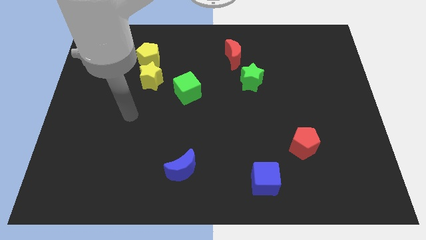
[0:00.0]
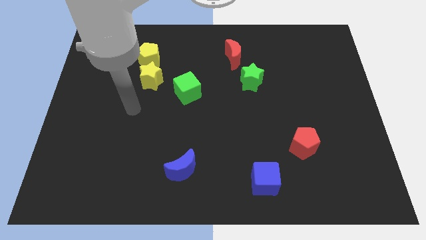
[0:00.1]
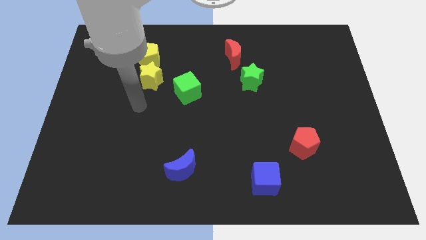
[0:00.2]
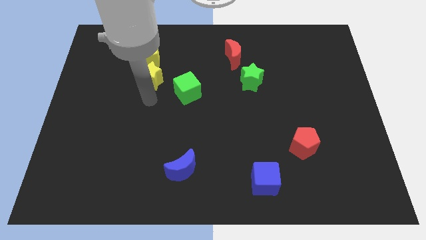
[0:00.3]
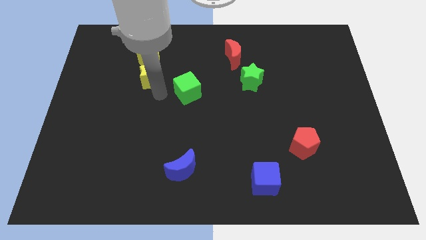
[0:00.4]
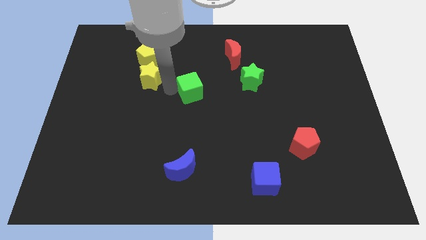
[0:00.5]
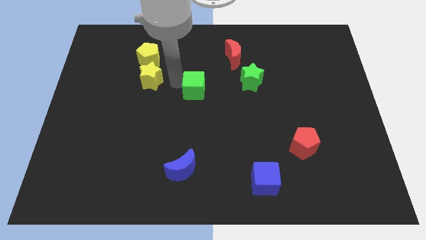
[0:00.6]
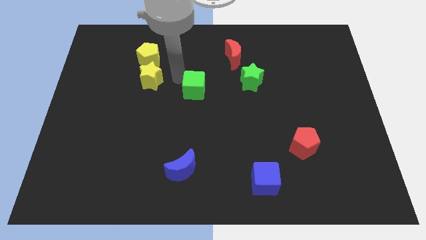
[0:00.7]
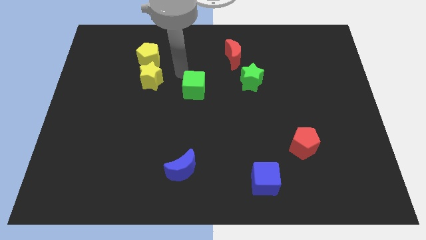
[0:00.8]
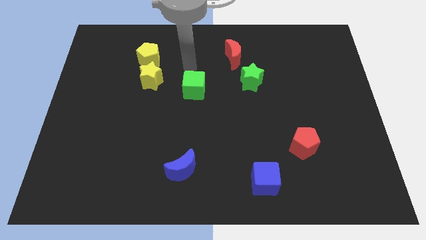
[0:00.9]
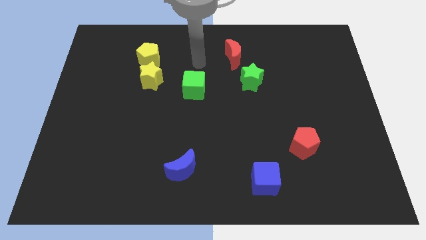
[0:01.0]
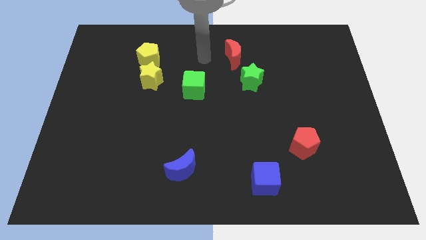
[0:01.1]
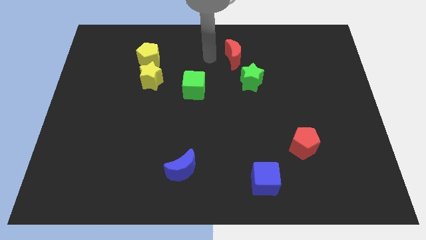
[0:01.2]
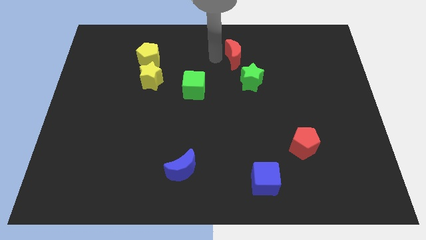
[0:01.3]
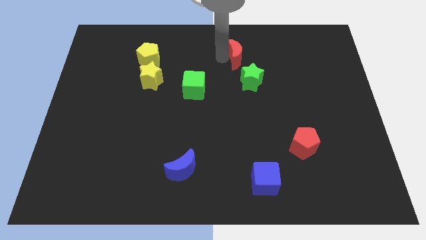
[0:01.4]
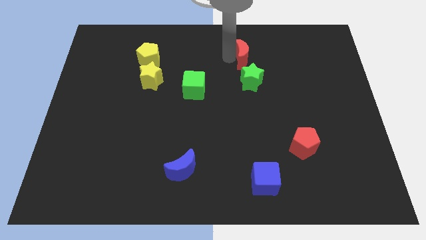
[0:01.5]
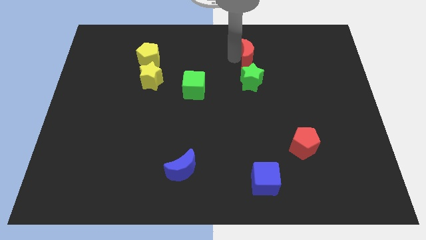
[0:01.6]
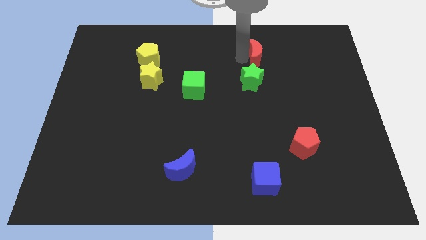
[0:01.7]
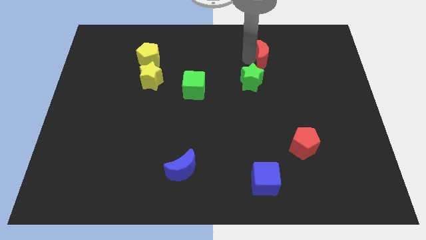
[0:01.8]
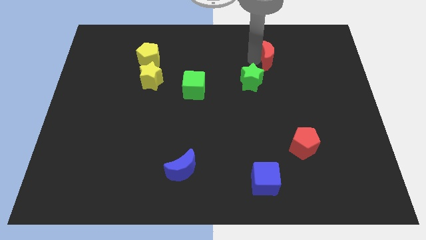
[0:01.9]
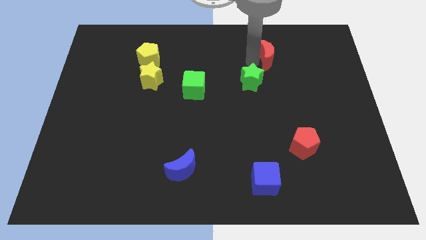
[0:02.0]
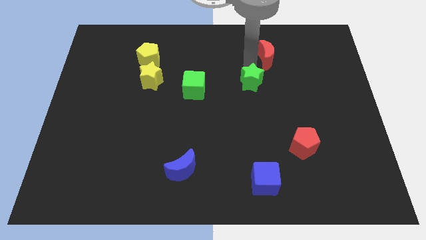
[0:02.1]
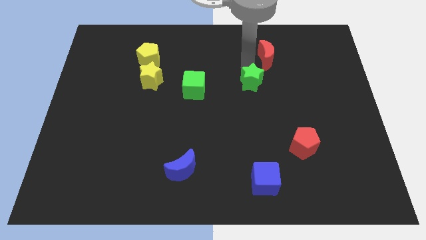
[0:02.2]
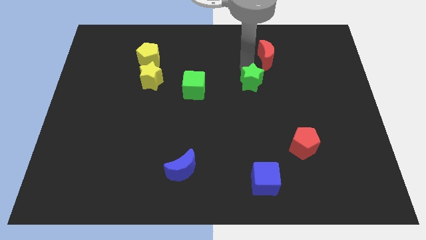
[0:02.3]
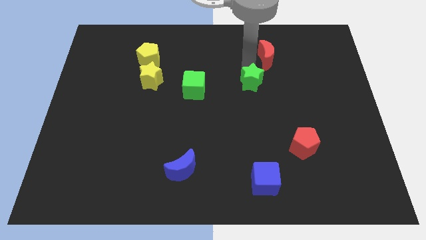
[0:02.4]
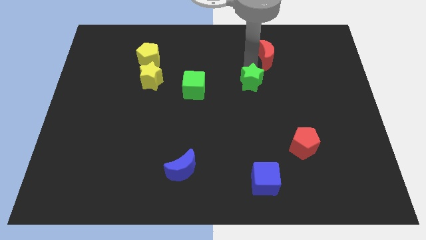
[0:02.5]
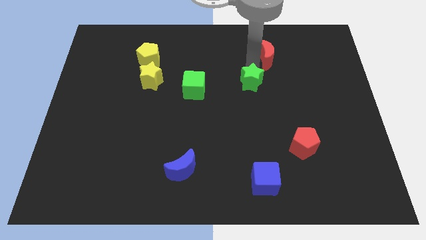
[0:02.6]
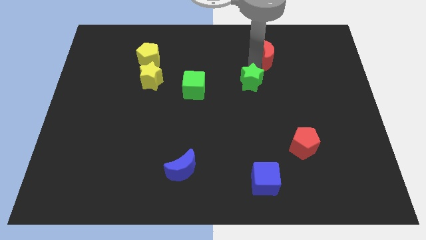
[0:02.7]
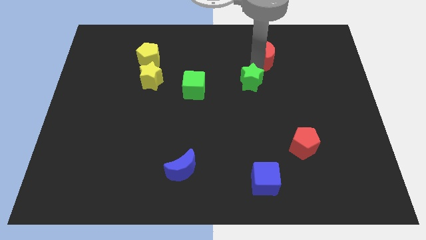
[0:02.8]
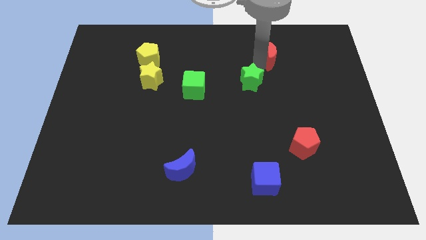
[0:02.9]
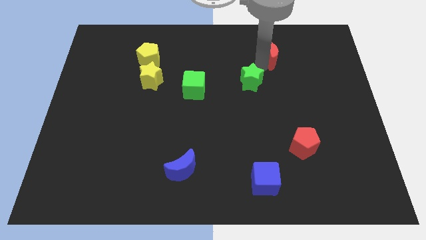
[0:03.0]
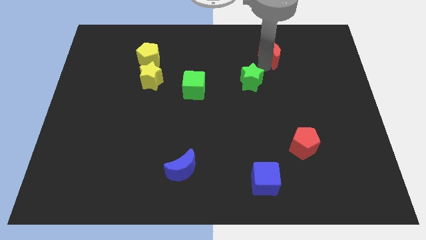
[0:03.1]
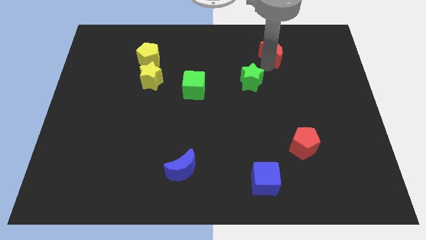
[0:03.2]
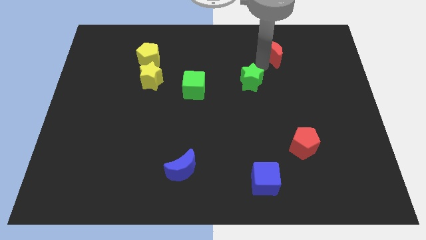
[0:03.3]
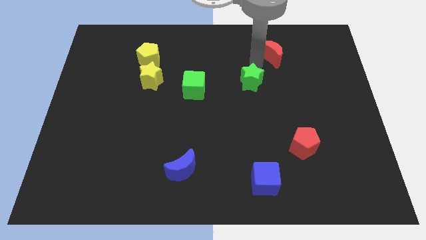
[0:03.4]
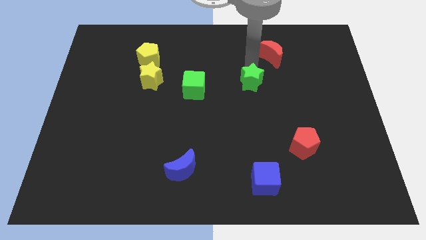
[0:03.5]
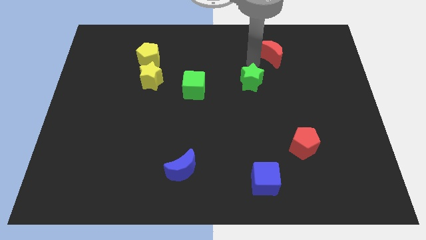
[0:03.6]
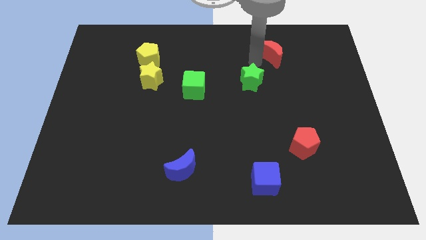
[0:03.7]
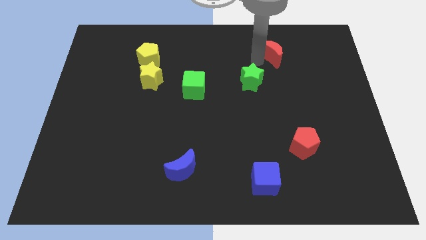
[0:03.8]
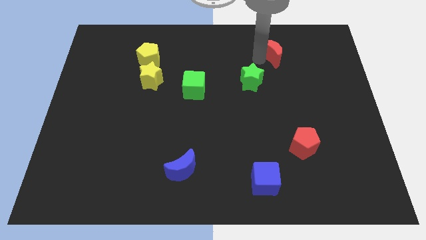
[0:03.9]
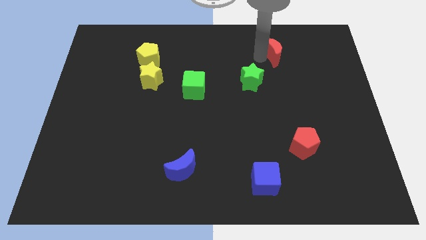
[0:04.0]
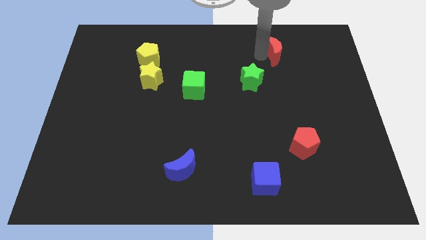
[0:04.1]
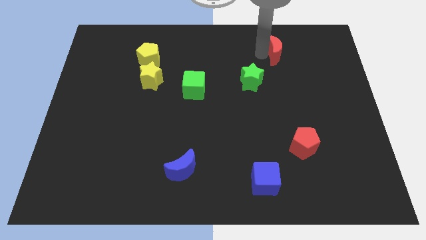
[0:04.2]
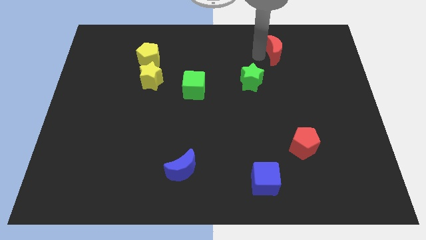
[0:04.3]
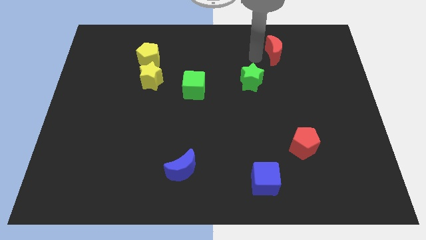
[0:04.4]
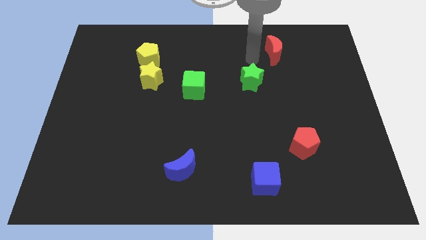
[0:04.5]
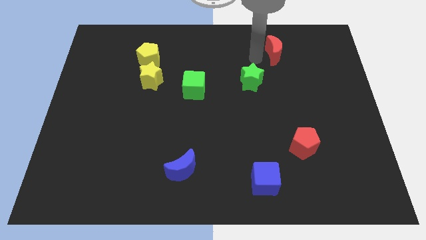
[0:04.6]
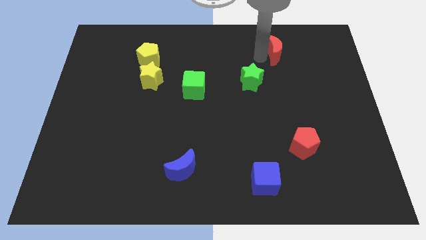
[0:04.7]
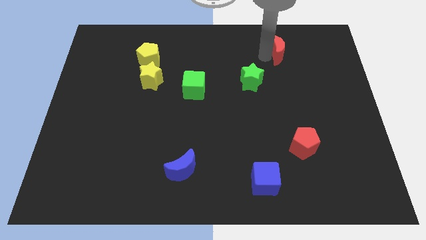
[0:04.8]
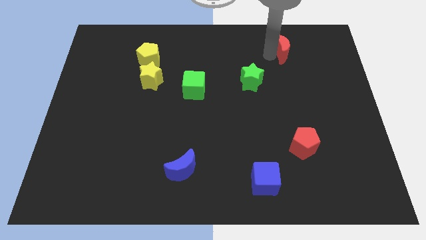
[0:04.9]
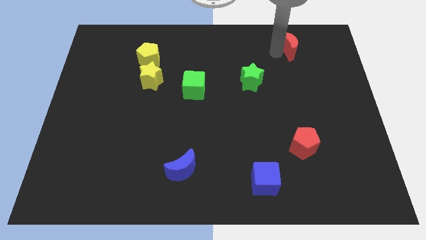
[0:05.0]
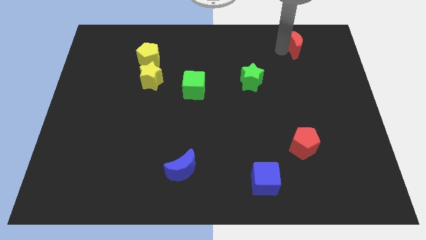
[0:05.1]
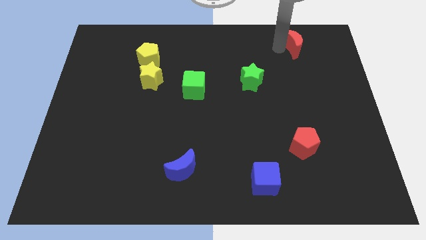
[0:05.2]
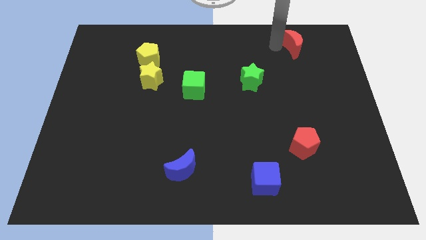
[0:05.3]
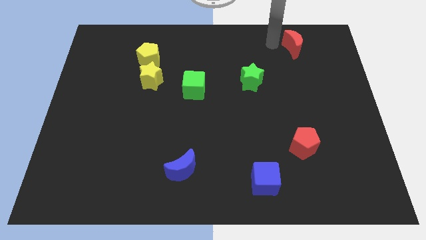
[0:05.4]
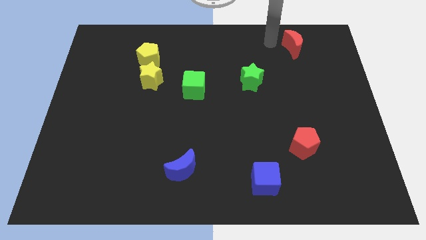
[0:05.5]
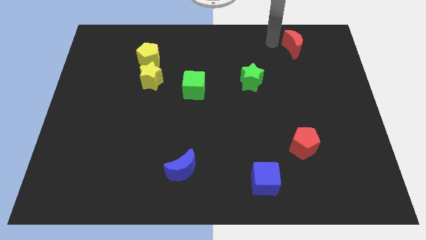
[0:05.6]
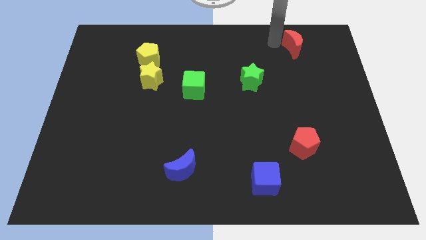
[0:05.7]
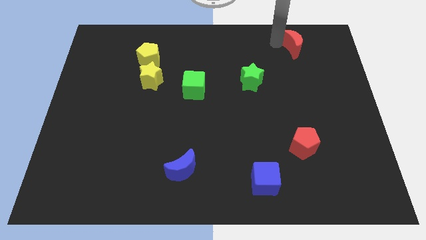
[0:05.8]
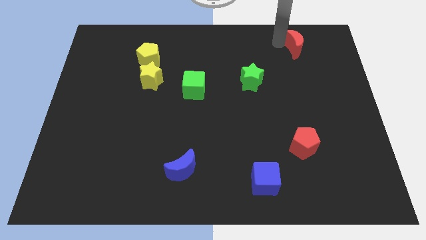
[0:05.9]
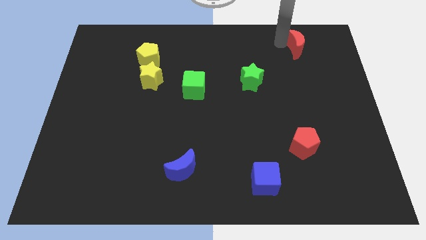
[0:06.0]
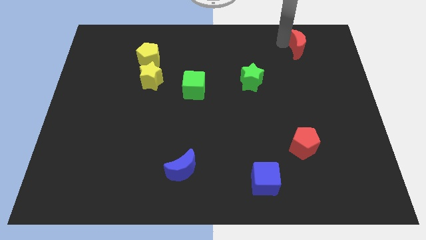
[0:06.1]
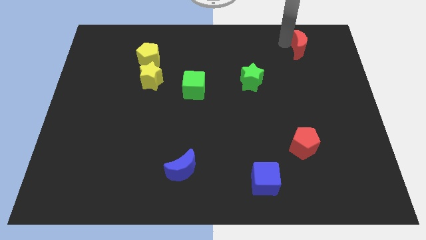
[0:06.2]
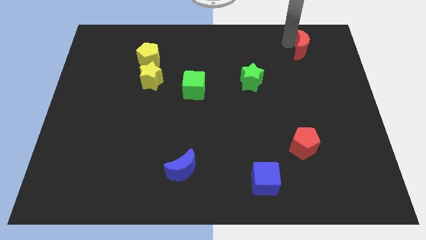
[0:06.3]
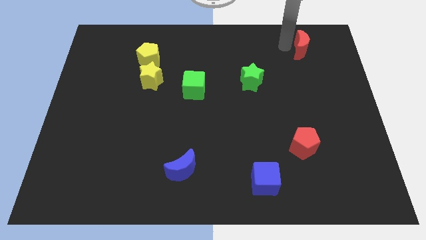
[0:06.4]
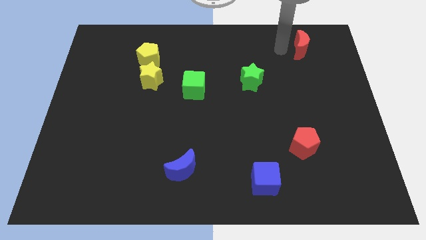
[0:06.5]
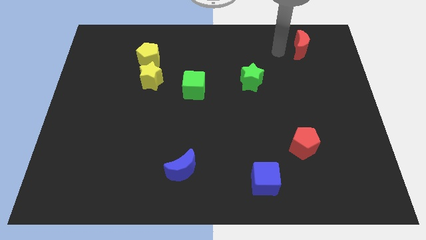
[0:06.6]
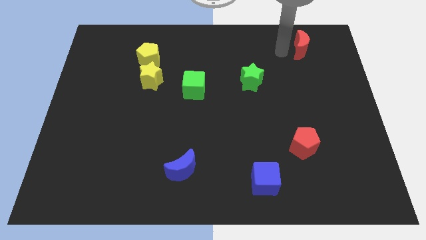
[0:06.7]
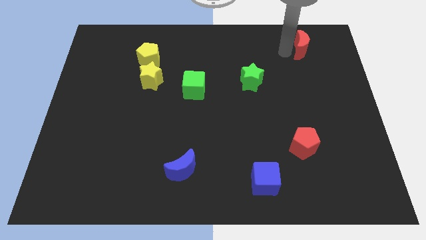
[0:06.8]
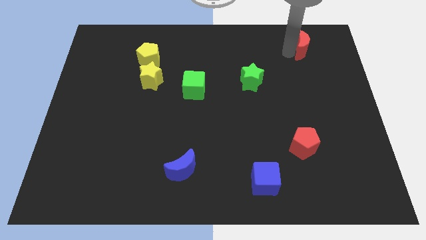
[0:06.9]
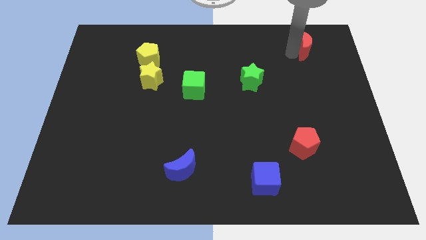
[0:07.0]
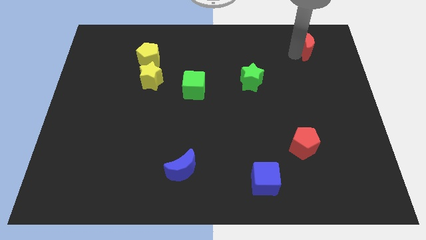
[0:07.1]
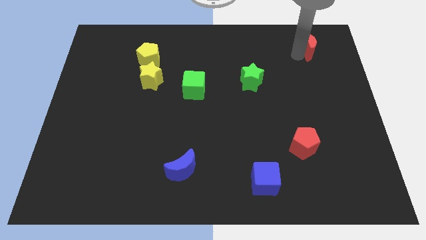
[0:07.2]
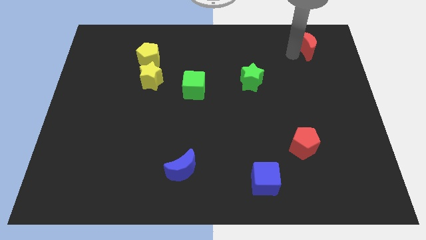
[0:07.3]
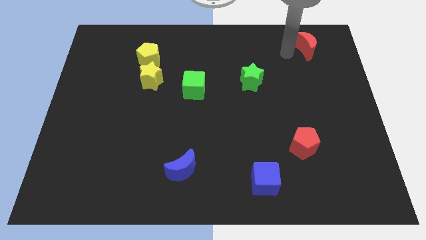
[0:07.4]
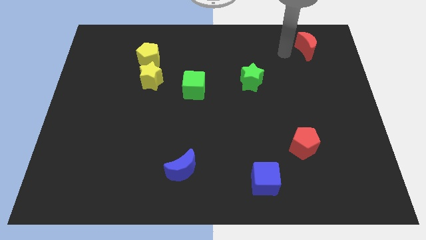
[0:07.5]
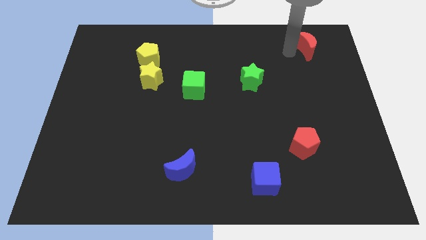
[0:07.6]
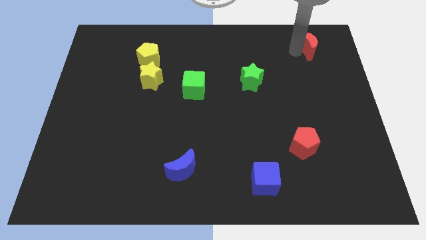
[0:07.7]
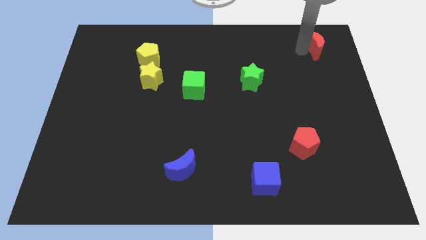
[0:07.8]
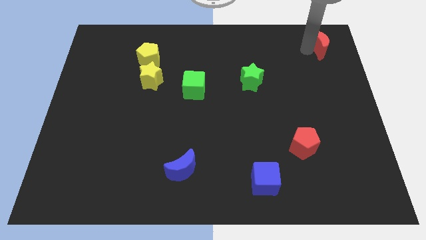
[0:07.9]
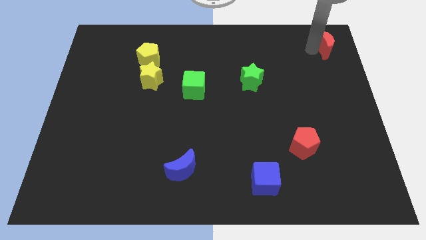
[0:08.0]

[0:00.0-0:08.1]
slide the red moon to the top right corner
